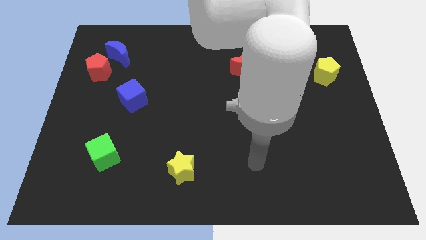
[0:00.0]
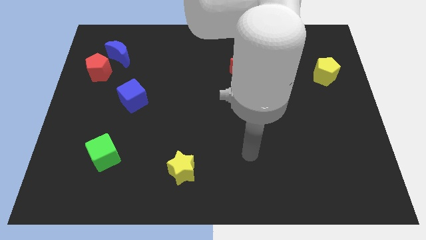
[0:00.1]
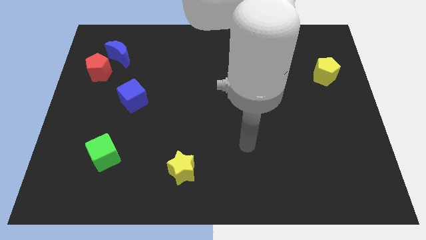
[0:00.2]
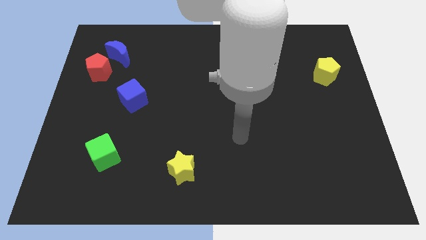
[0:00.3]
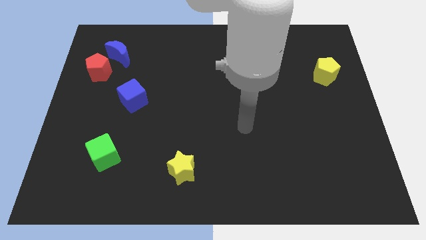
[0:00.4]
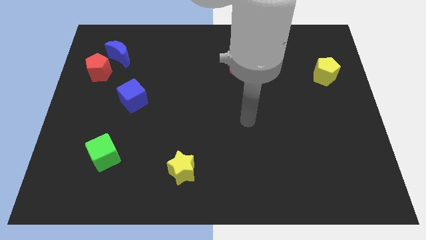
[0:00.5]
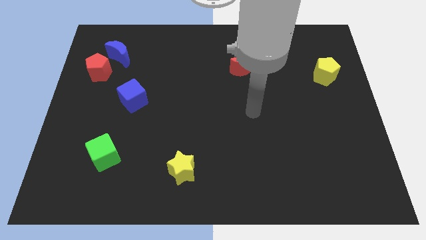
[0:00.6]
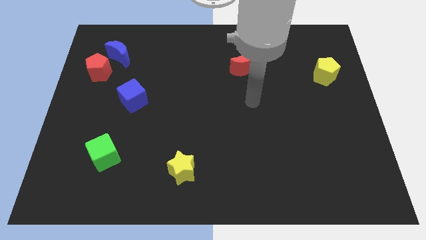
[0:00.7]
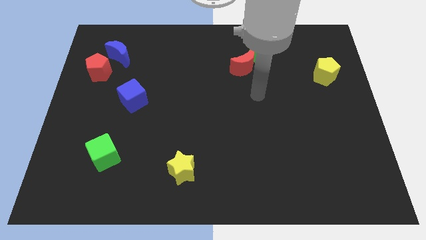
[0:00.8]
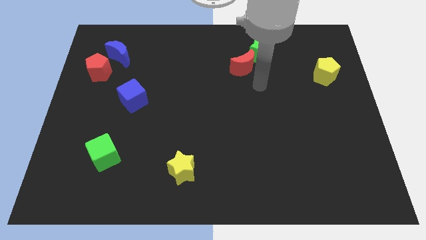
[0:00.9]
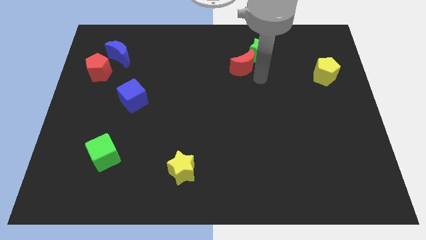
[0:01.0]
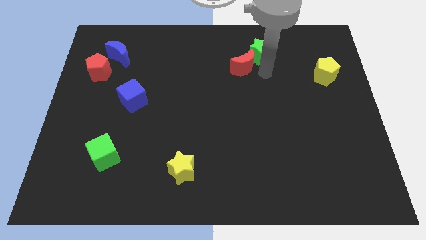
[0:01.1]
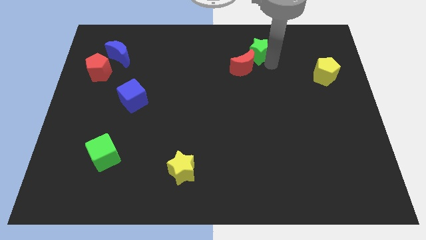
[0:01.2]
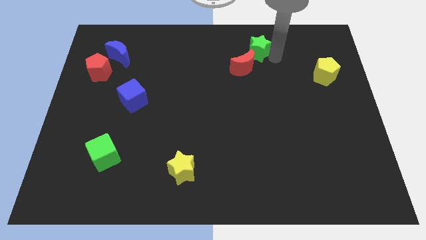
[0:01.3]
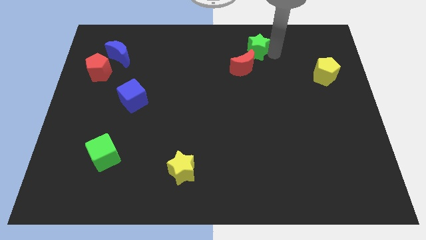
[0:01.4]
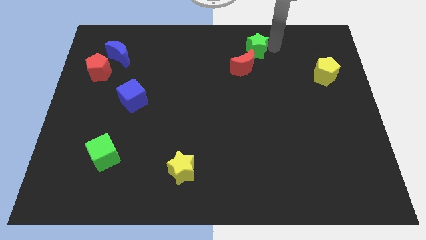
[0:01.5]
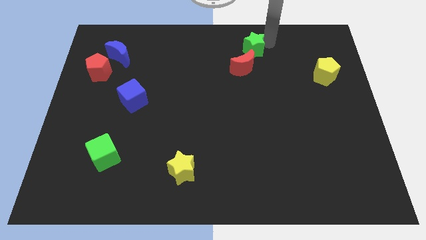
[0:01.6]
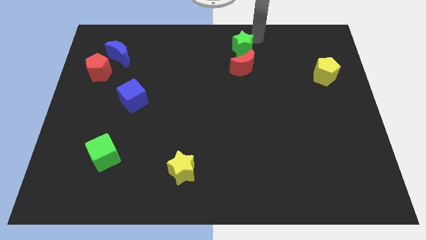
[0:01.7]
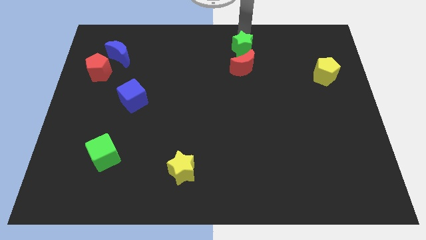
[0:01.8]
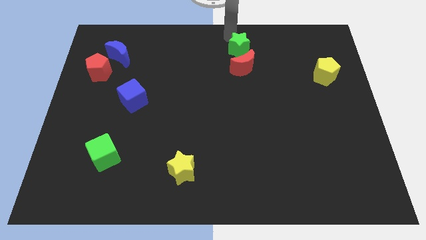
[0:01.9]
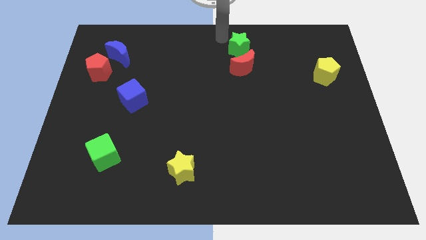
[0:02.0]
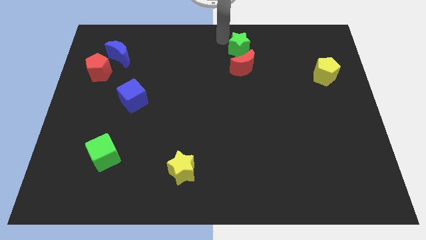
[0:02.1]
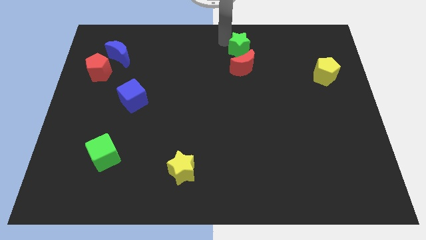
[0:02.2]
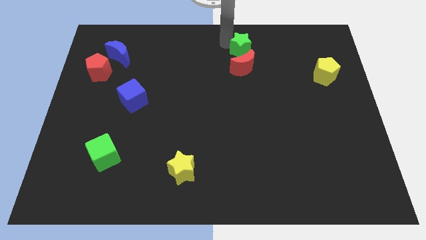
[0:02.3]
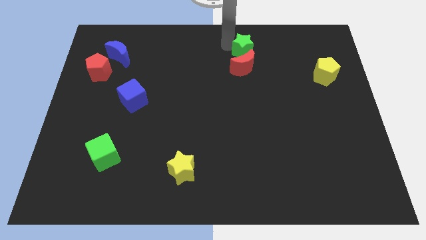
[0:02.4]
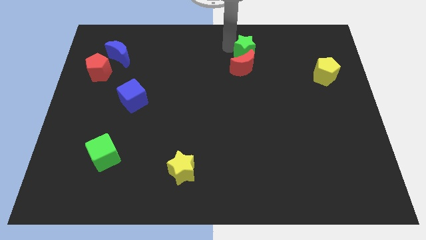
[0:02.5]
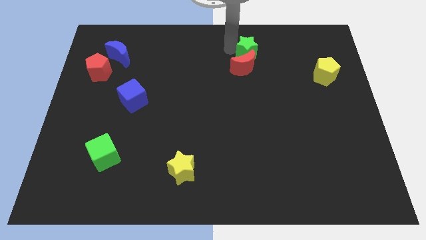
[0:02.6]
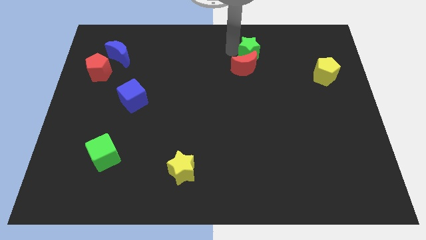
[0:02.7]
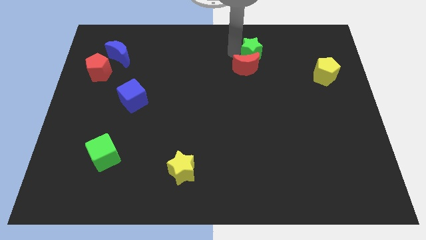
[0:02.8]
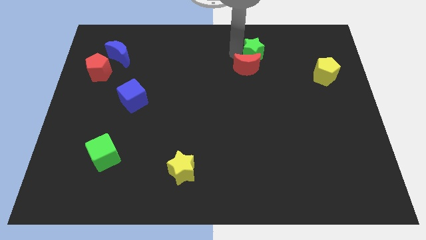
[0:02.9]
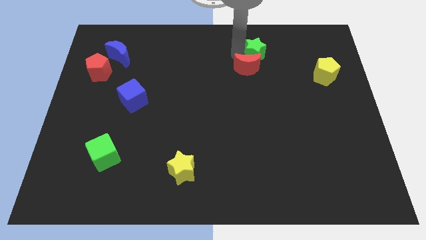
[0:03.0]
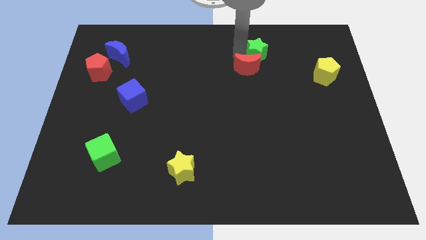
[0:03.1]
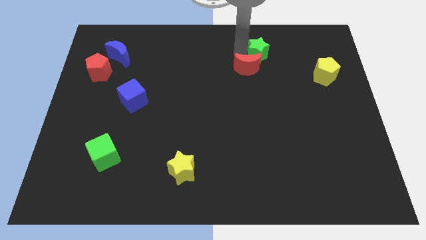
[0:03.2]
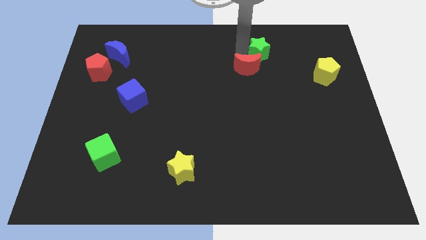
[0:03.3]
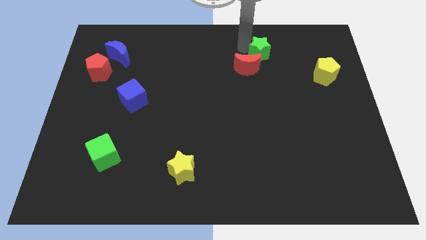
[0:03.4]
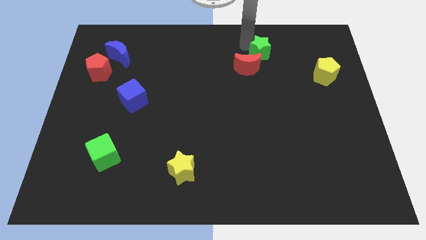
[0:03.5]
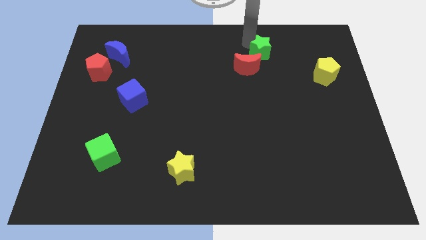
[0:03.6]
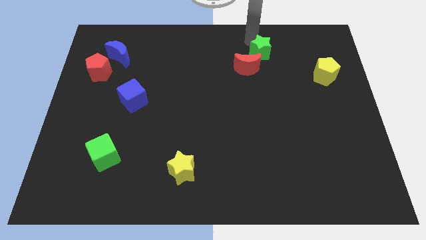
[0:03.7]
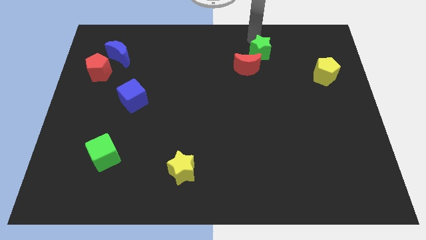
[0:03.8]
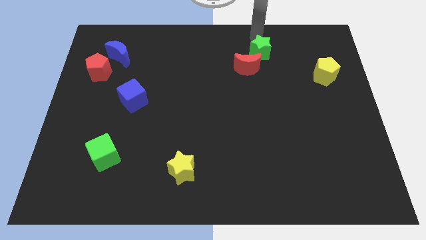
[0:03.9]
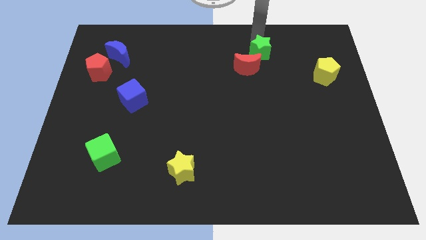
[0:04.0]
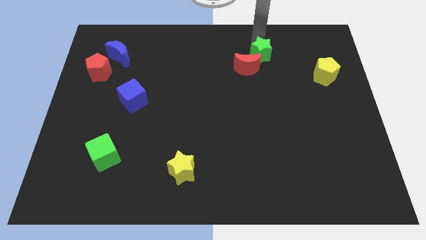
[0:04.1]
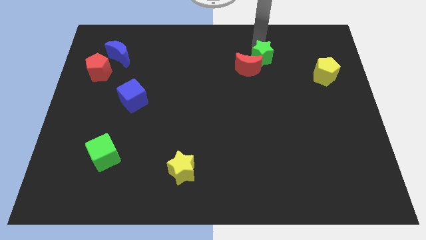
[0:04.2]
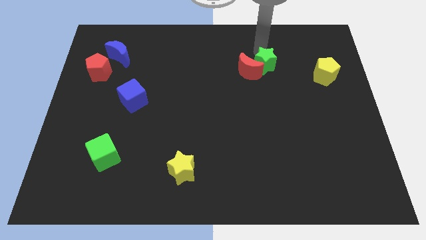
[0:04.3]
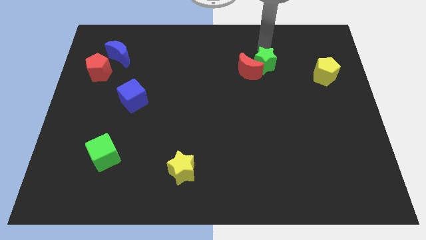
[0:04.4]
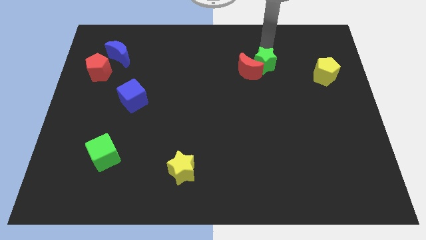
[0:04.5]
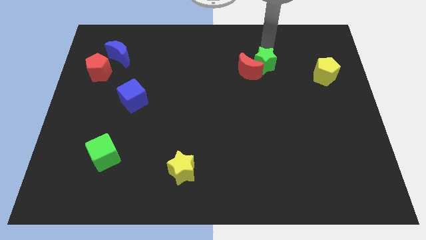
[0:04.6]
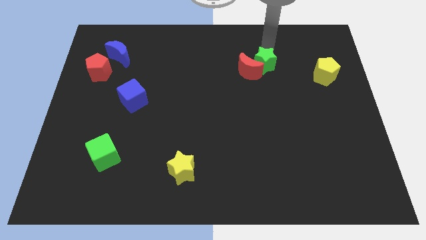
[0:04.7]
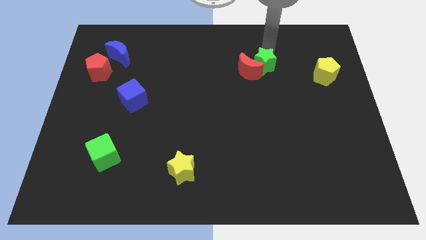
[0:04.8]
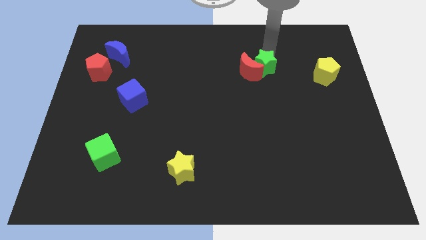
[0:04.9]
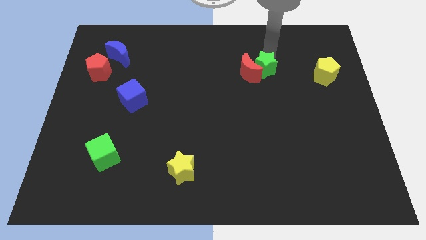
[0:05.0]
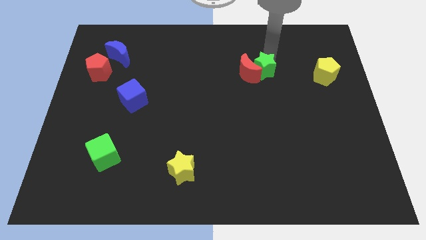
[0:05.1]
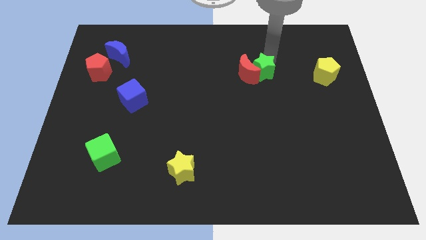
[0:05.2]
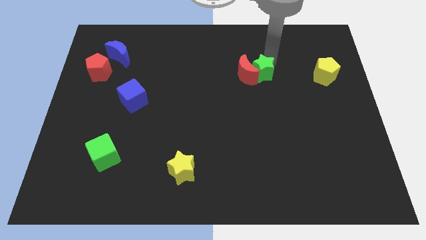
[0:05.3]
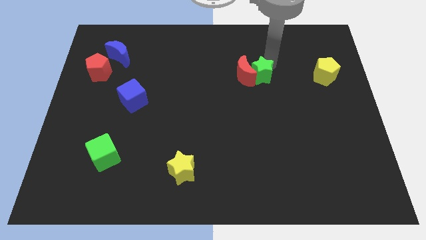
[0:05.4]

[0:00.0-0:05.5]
move the green star somewhat downwards

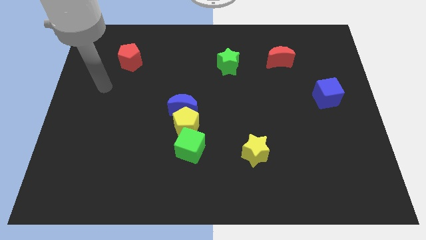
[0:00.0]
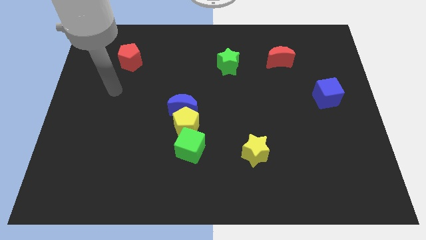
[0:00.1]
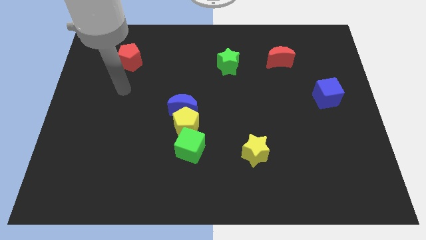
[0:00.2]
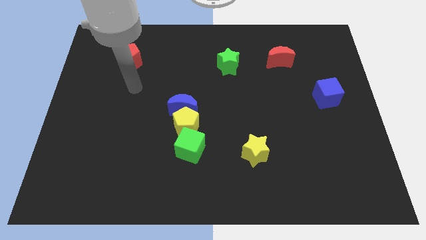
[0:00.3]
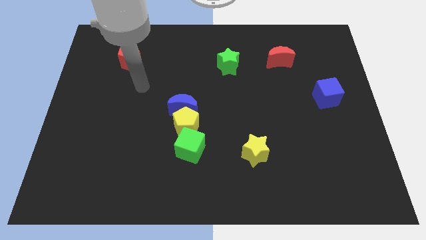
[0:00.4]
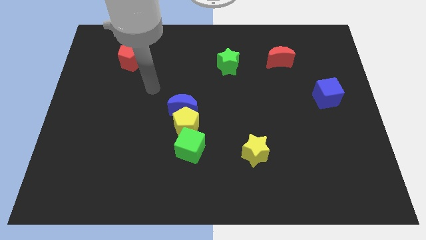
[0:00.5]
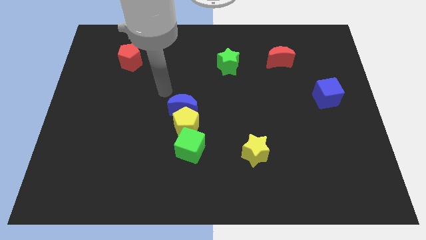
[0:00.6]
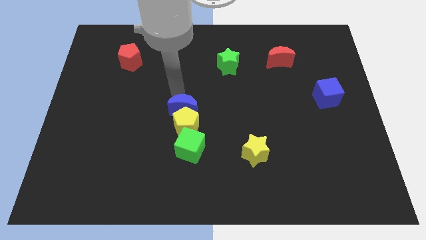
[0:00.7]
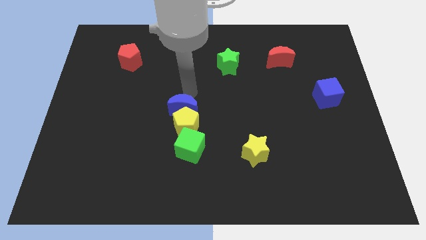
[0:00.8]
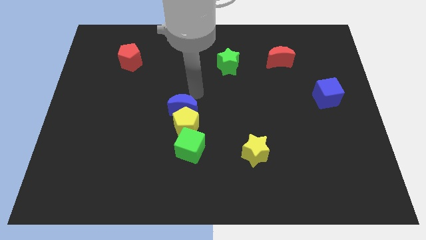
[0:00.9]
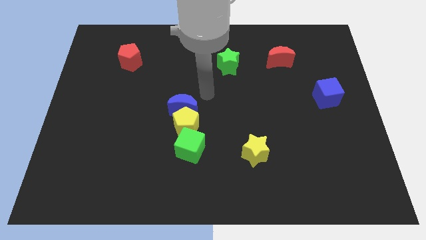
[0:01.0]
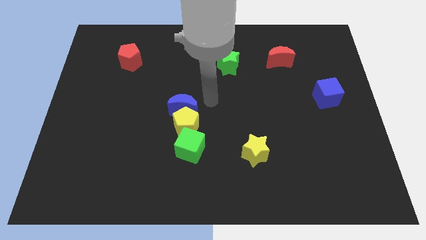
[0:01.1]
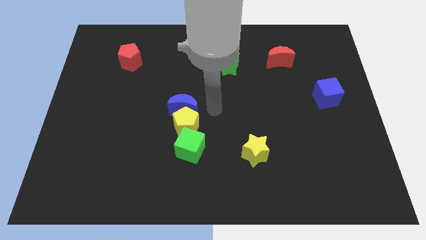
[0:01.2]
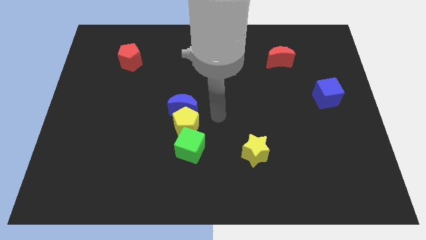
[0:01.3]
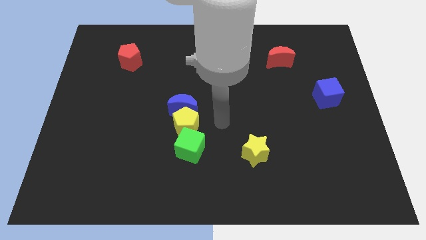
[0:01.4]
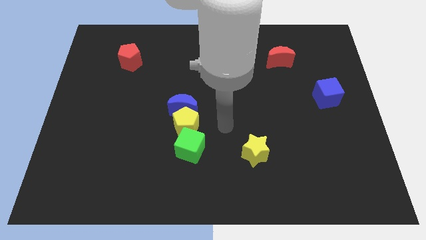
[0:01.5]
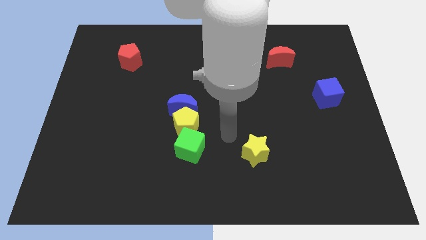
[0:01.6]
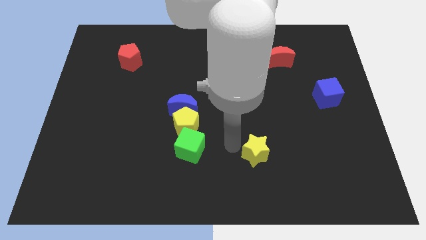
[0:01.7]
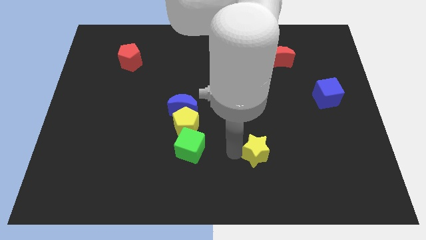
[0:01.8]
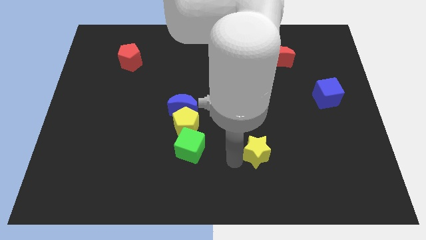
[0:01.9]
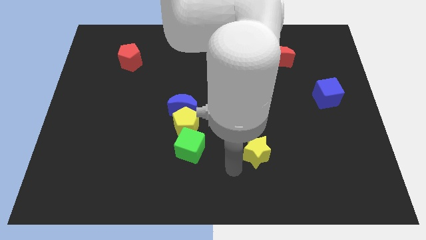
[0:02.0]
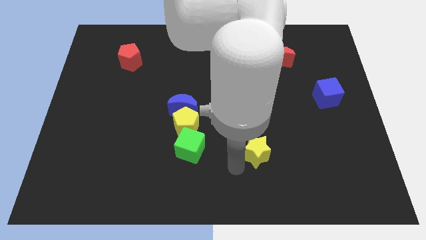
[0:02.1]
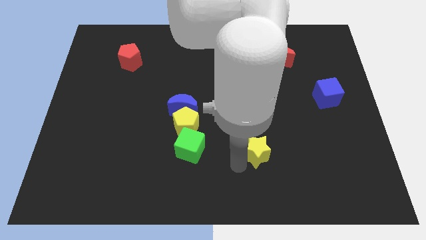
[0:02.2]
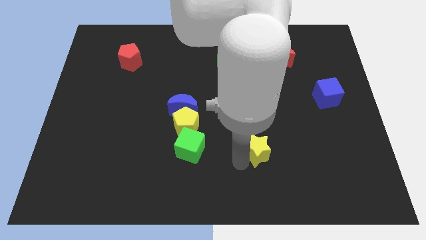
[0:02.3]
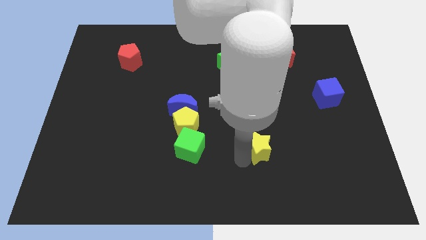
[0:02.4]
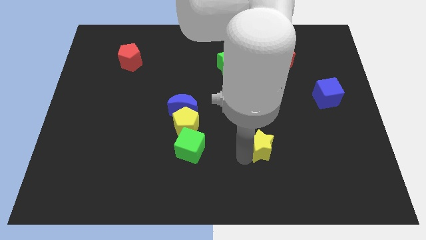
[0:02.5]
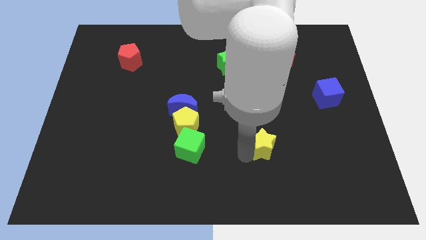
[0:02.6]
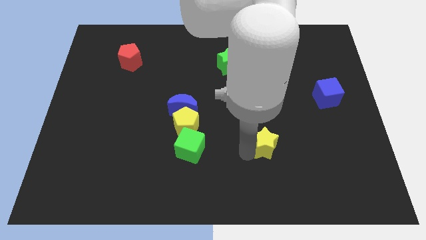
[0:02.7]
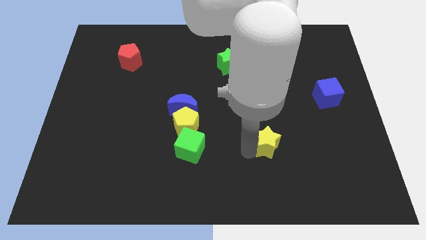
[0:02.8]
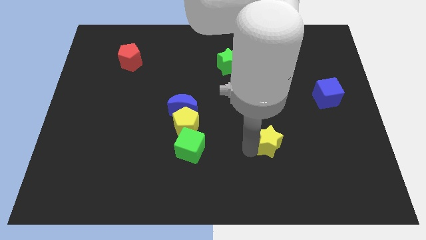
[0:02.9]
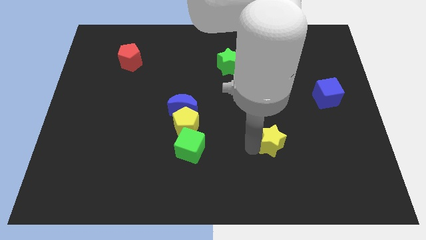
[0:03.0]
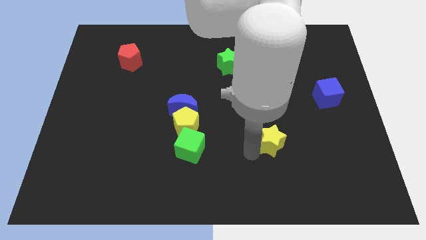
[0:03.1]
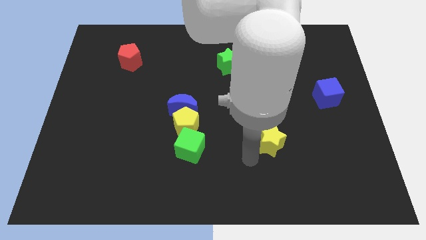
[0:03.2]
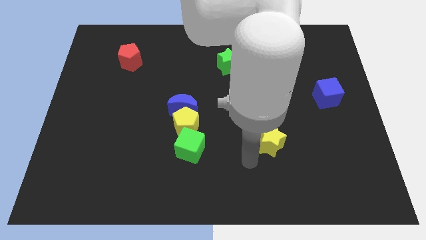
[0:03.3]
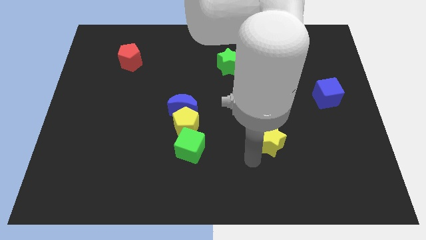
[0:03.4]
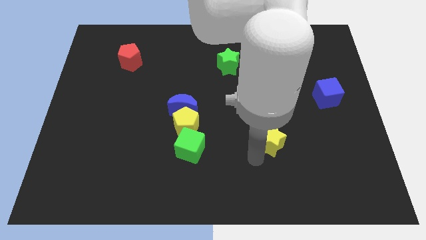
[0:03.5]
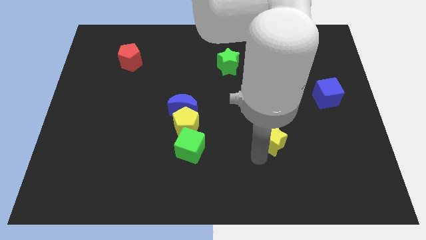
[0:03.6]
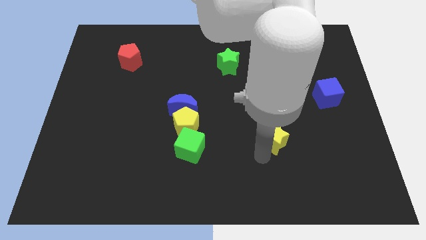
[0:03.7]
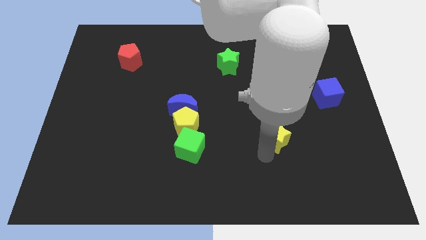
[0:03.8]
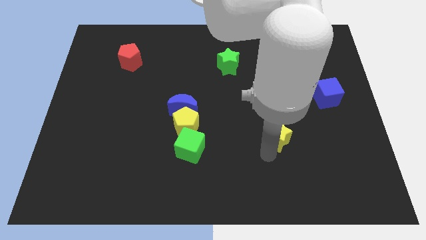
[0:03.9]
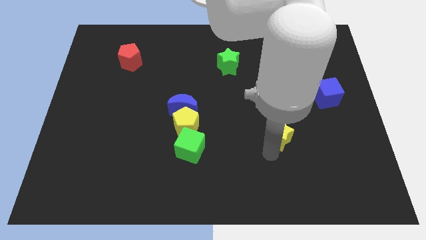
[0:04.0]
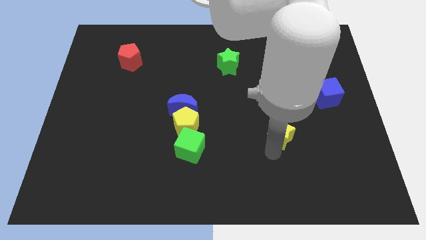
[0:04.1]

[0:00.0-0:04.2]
push the yellow star a bit diagonally up and to the right
